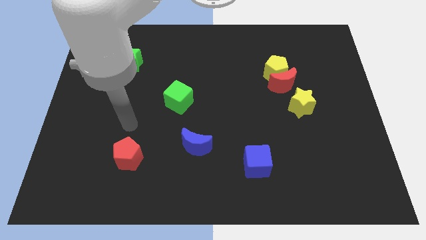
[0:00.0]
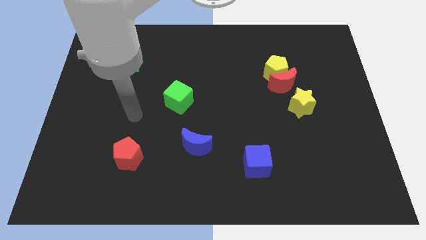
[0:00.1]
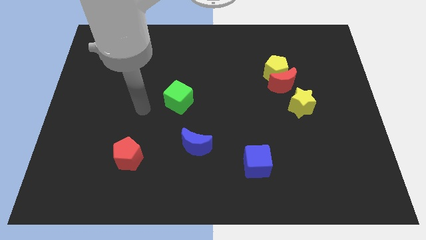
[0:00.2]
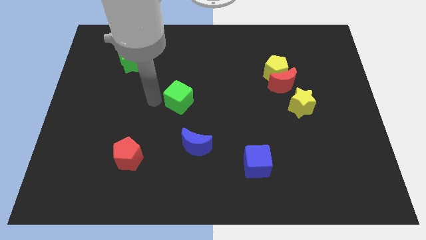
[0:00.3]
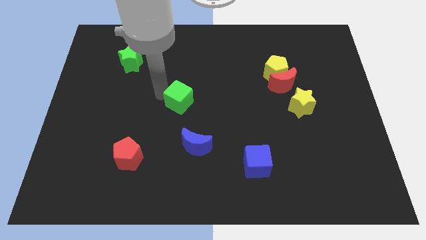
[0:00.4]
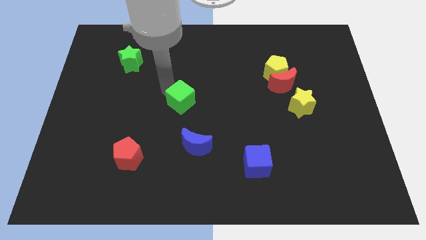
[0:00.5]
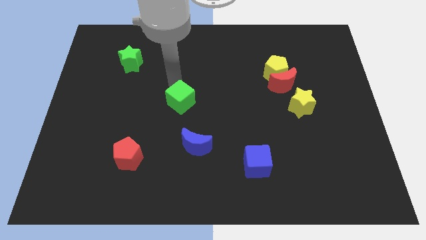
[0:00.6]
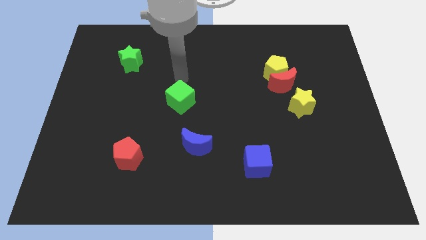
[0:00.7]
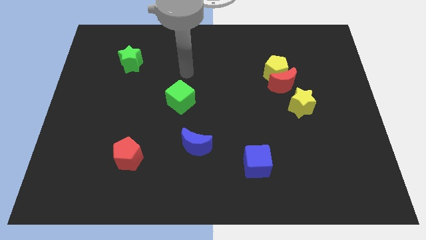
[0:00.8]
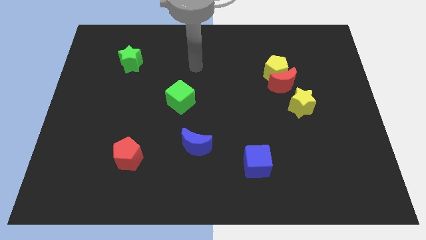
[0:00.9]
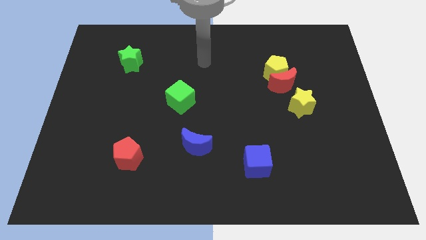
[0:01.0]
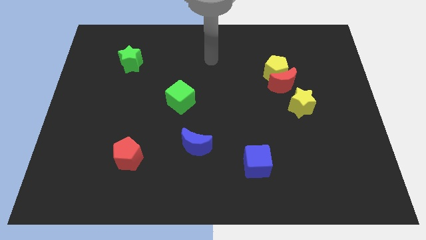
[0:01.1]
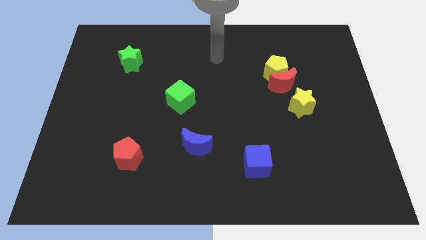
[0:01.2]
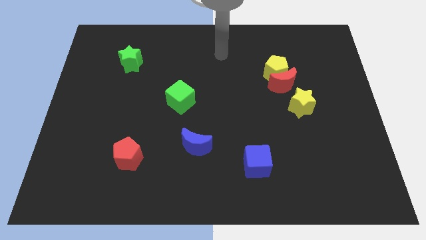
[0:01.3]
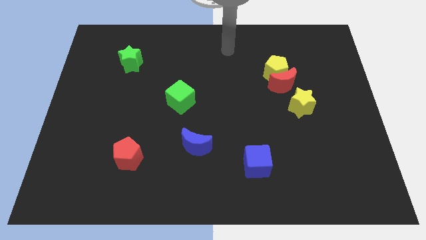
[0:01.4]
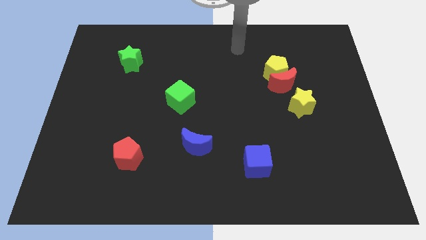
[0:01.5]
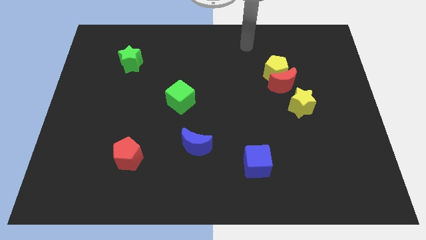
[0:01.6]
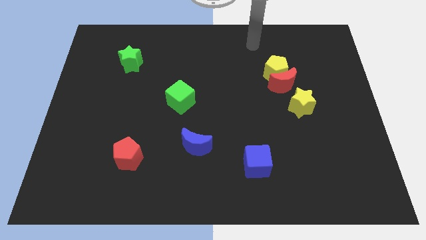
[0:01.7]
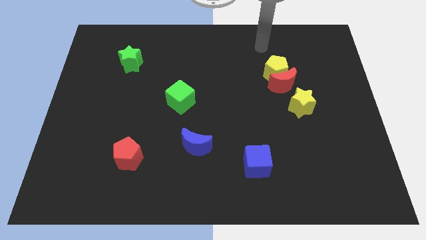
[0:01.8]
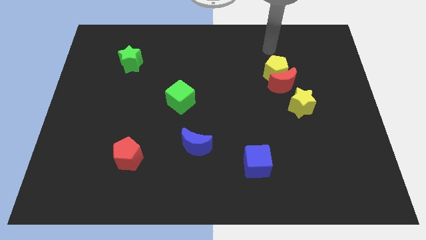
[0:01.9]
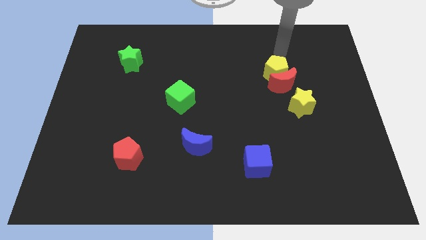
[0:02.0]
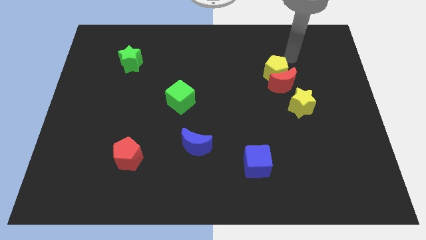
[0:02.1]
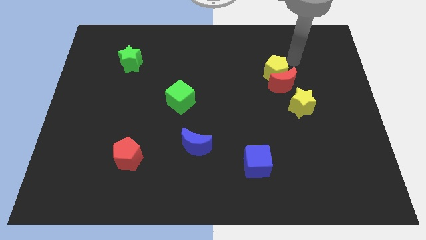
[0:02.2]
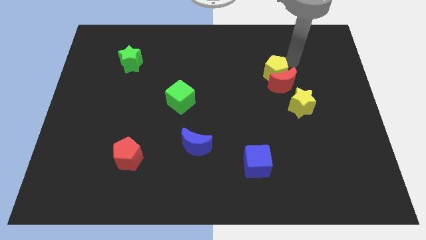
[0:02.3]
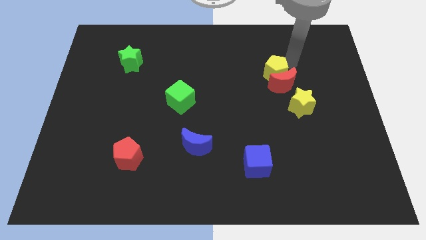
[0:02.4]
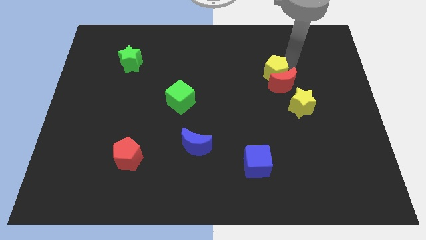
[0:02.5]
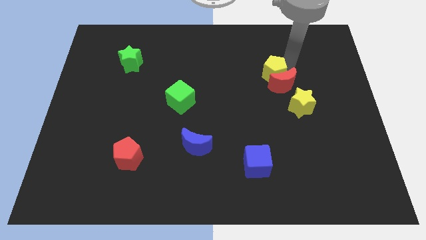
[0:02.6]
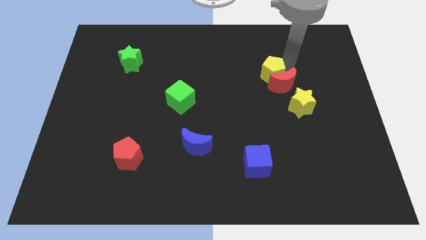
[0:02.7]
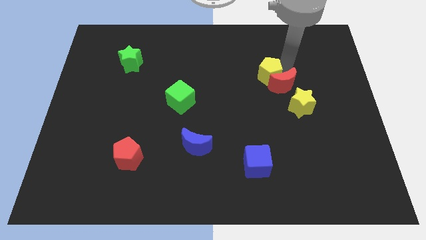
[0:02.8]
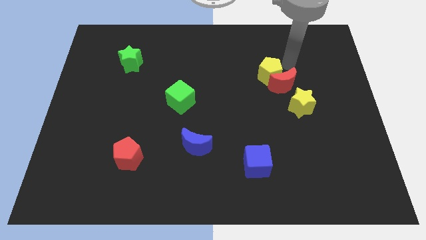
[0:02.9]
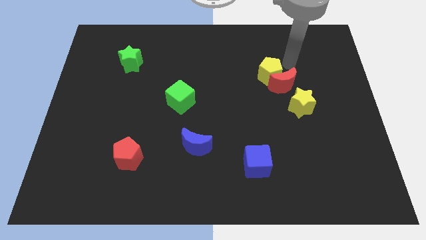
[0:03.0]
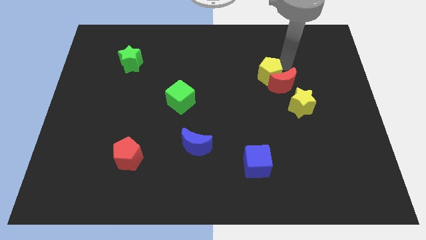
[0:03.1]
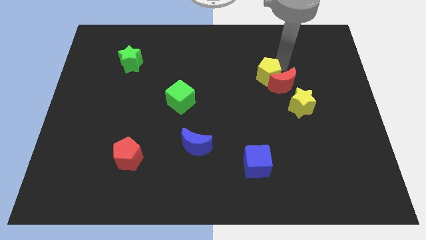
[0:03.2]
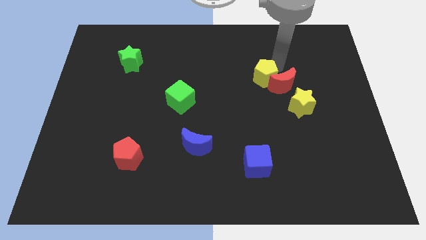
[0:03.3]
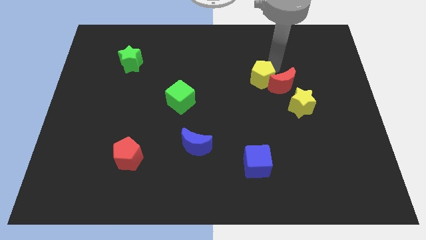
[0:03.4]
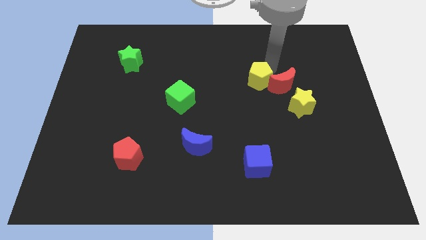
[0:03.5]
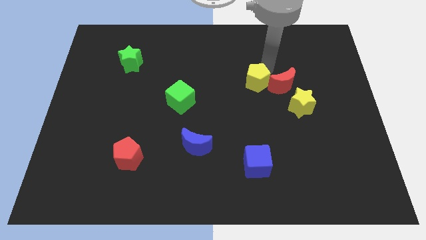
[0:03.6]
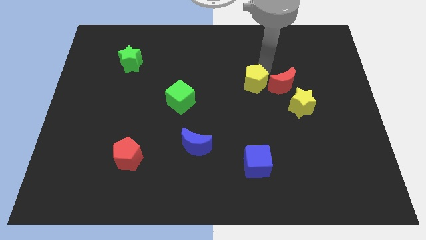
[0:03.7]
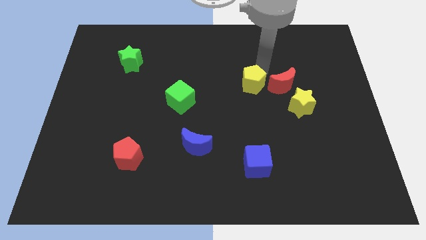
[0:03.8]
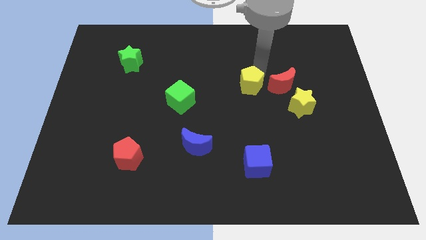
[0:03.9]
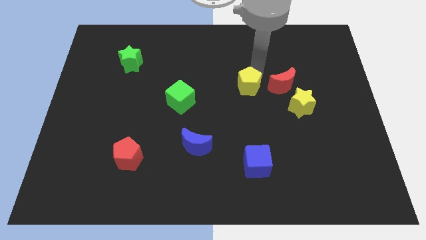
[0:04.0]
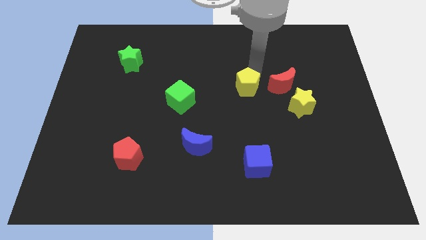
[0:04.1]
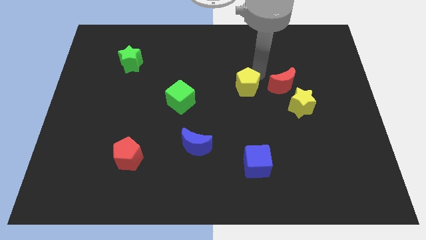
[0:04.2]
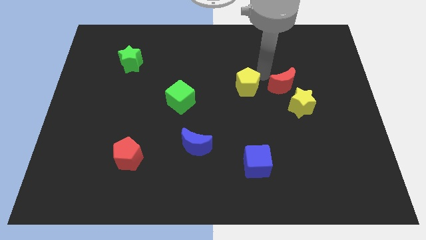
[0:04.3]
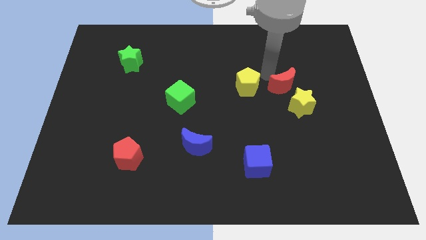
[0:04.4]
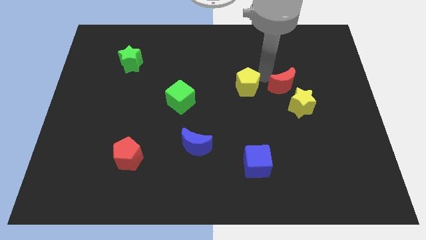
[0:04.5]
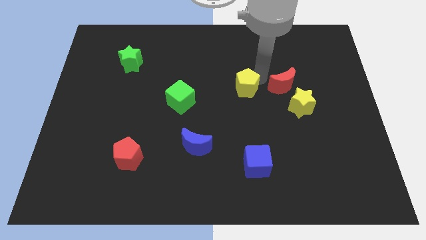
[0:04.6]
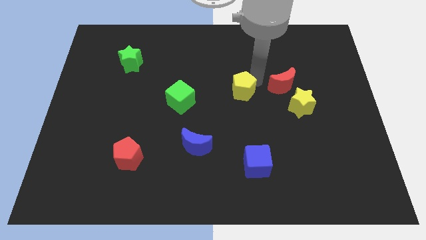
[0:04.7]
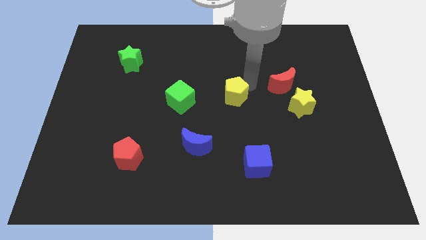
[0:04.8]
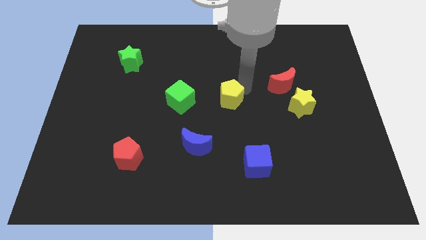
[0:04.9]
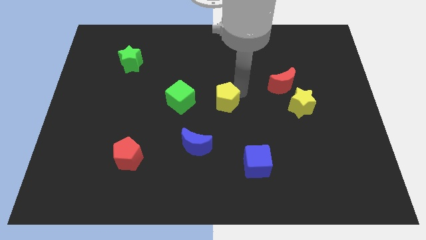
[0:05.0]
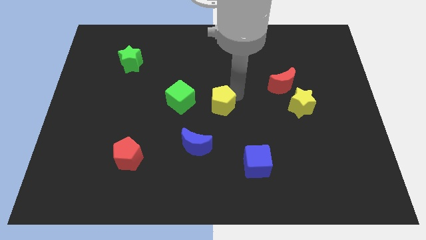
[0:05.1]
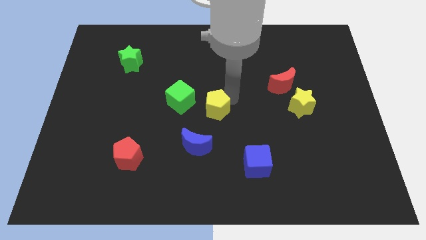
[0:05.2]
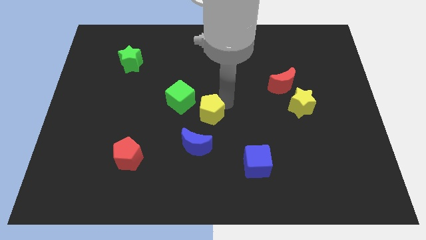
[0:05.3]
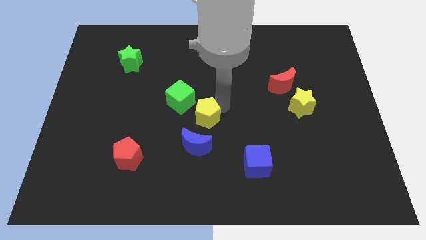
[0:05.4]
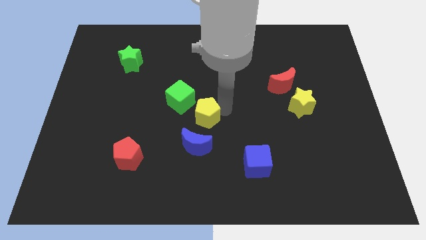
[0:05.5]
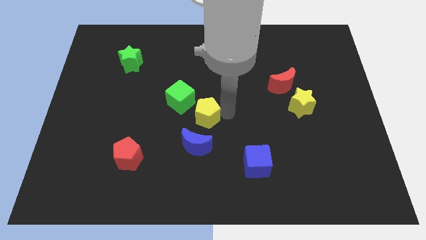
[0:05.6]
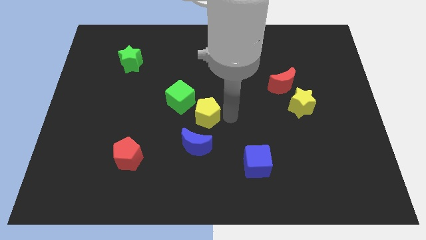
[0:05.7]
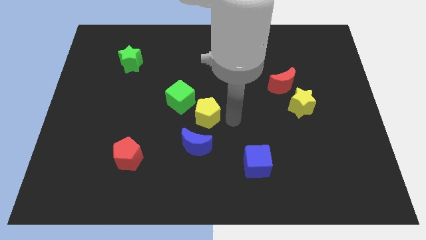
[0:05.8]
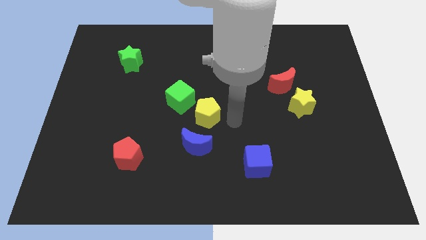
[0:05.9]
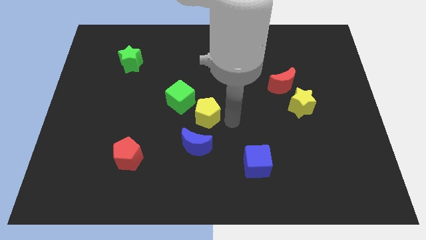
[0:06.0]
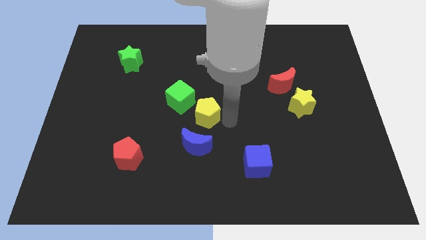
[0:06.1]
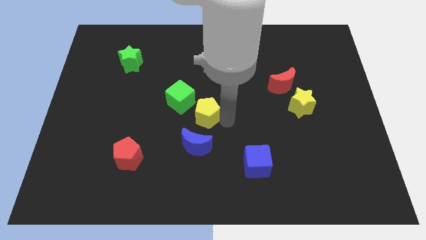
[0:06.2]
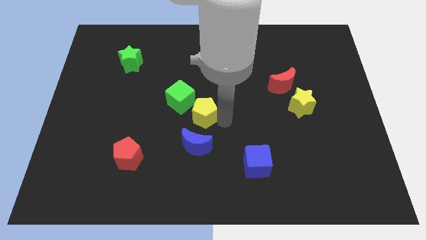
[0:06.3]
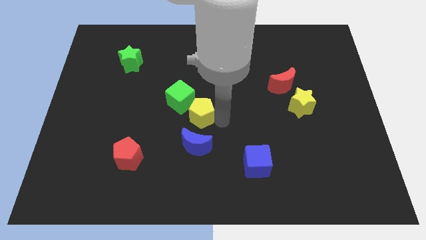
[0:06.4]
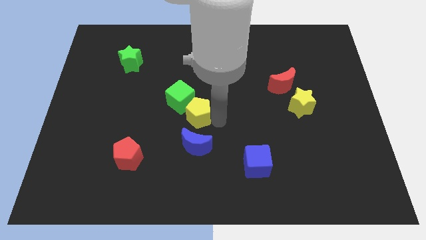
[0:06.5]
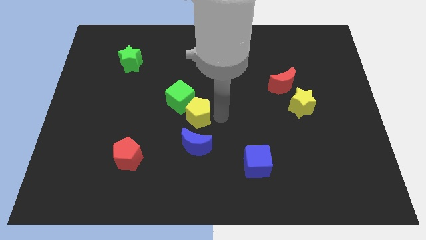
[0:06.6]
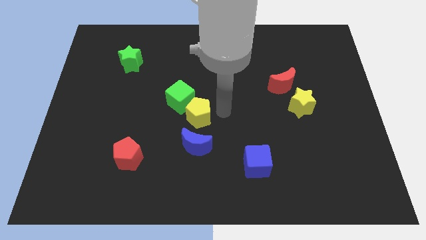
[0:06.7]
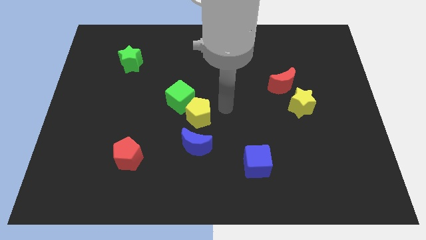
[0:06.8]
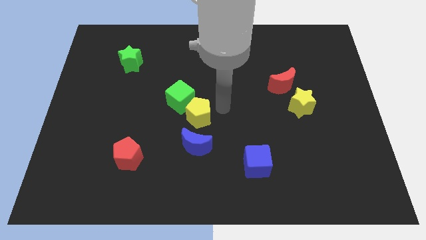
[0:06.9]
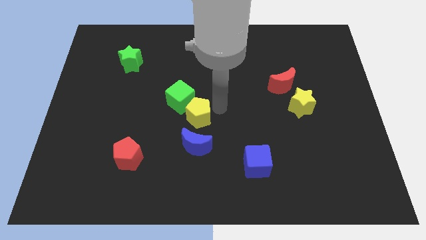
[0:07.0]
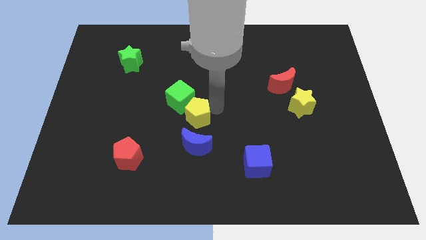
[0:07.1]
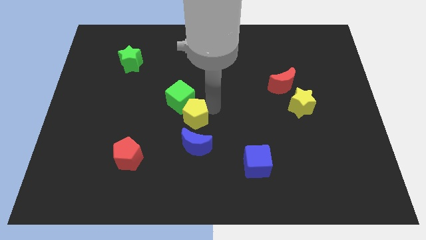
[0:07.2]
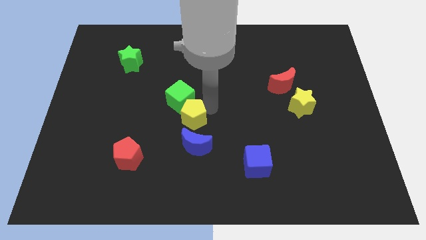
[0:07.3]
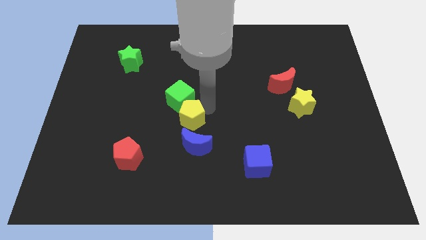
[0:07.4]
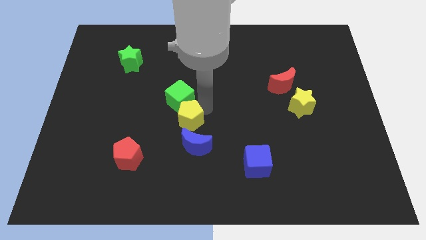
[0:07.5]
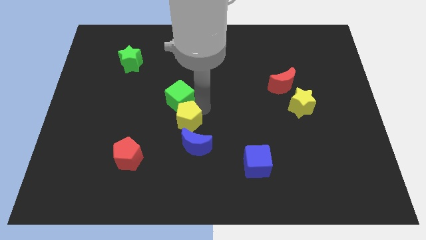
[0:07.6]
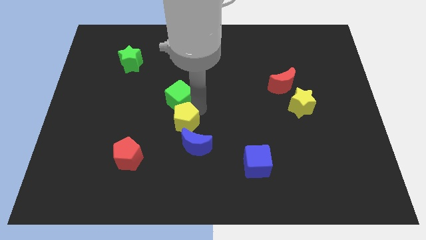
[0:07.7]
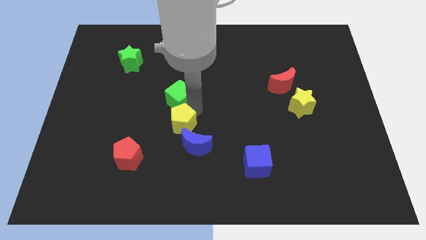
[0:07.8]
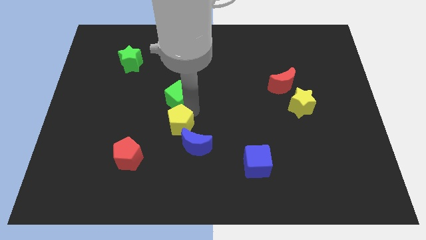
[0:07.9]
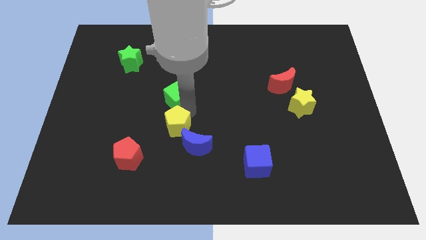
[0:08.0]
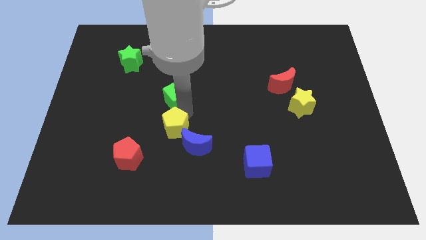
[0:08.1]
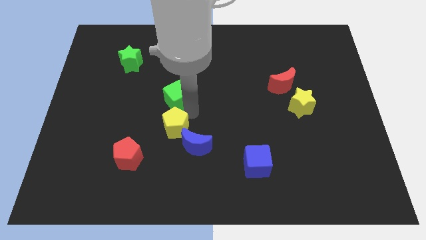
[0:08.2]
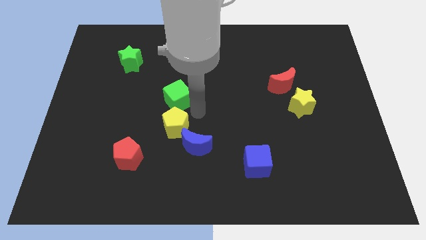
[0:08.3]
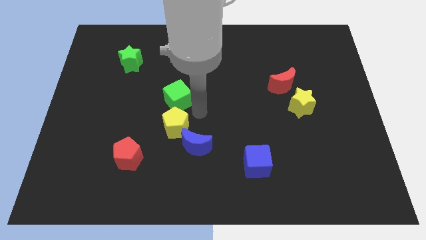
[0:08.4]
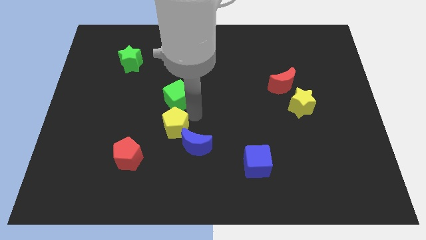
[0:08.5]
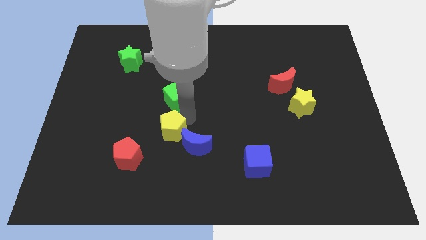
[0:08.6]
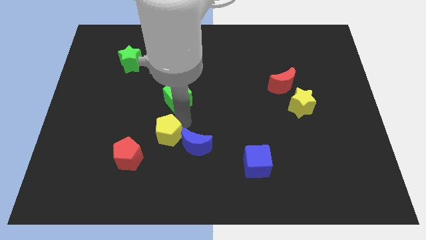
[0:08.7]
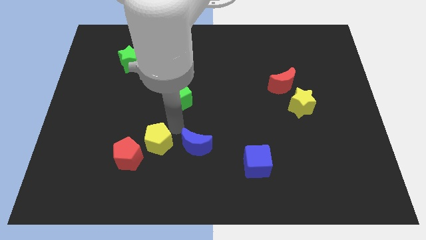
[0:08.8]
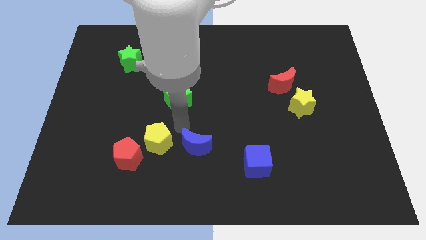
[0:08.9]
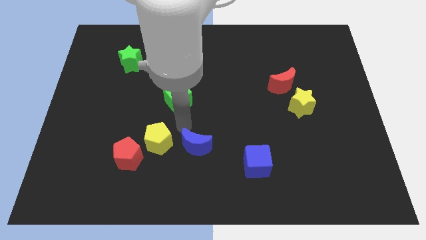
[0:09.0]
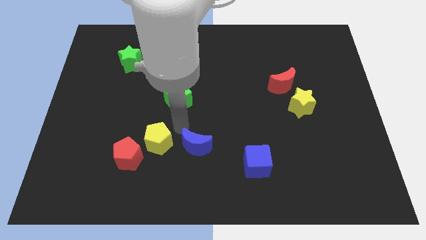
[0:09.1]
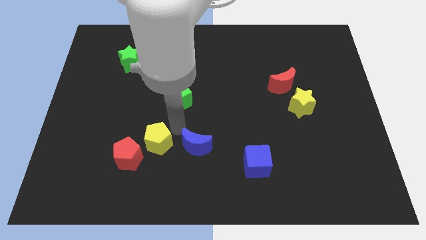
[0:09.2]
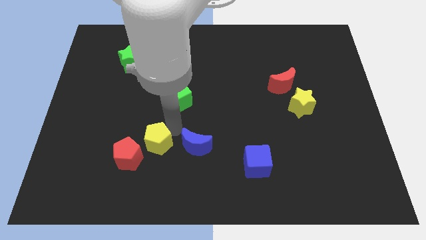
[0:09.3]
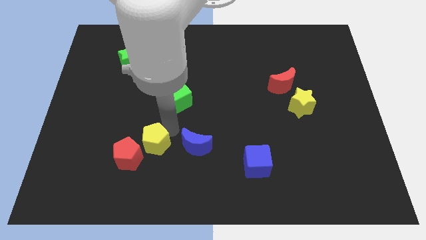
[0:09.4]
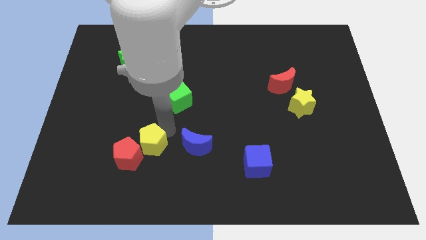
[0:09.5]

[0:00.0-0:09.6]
slide the yellow pentagon towards the red pentagon
